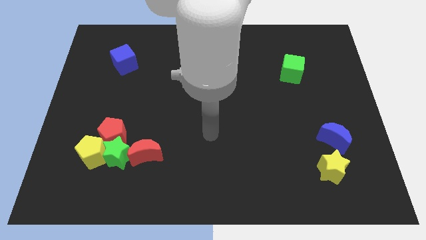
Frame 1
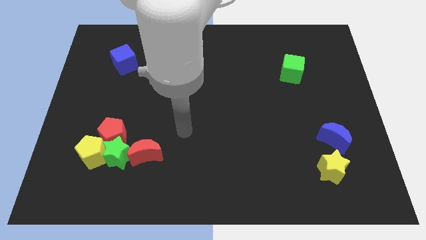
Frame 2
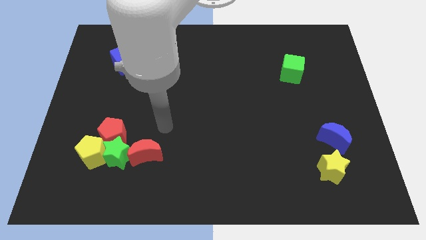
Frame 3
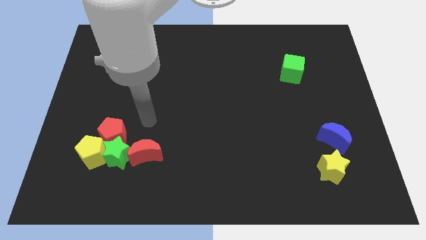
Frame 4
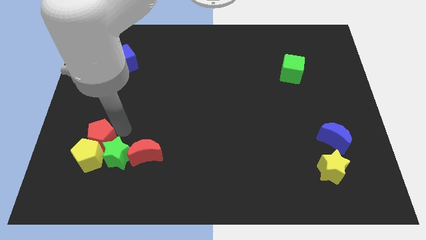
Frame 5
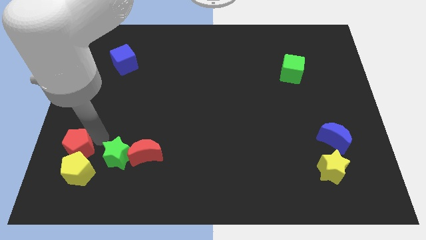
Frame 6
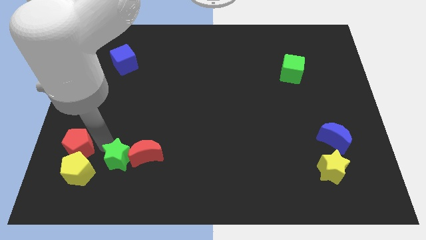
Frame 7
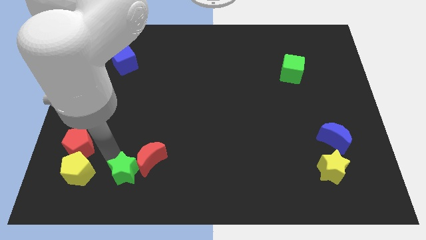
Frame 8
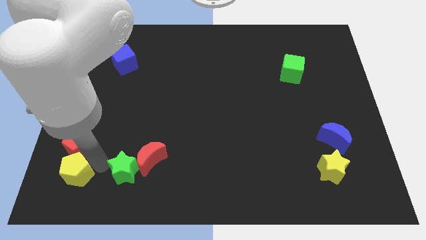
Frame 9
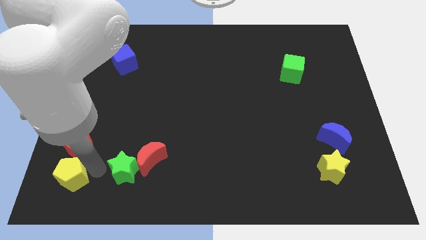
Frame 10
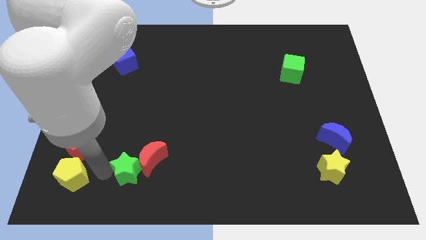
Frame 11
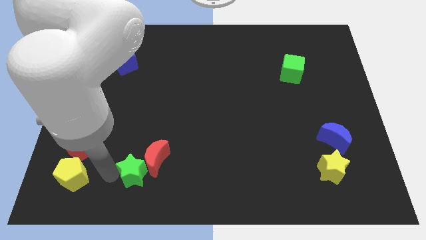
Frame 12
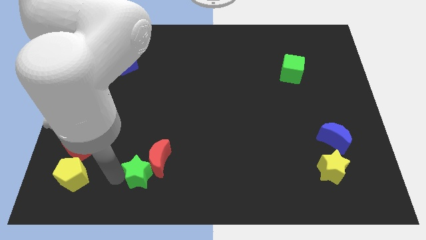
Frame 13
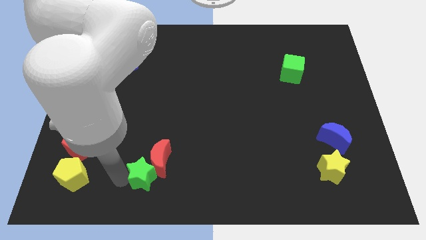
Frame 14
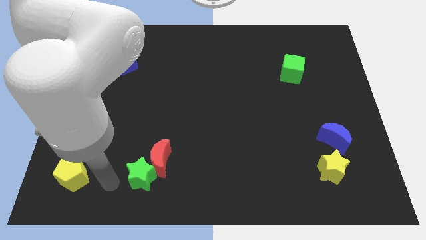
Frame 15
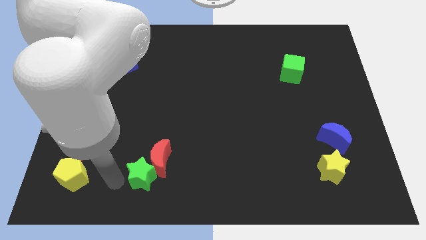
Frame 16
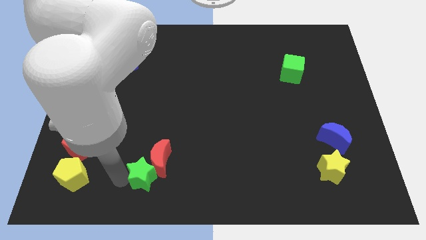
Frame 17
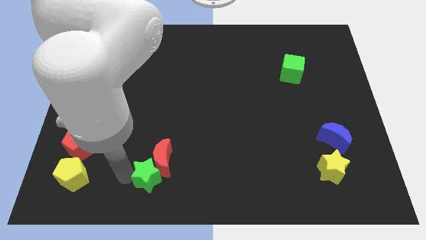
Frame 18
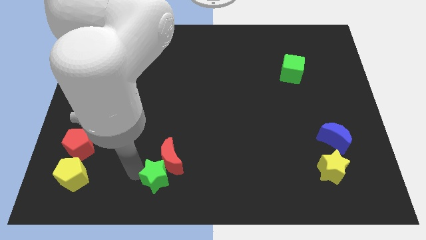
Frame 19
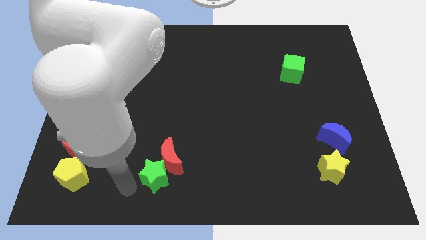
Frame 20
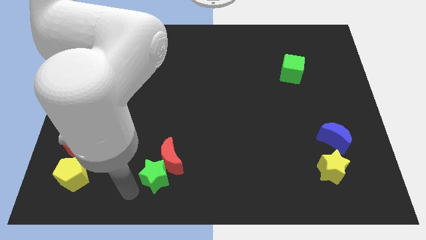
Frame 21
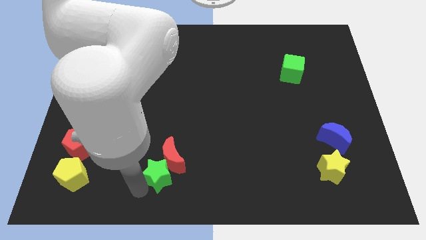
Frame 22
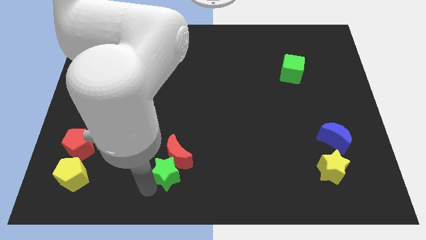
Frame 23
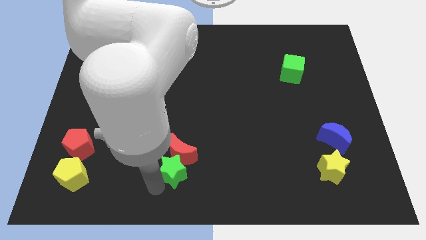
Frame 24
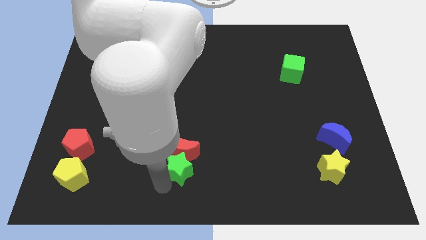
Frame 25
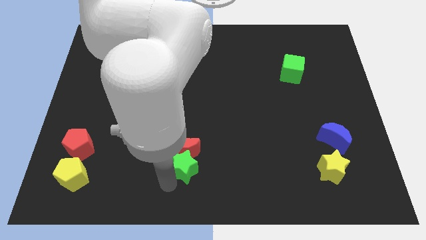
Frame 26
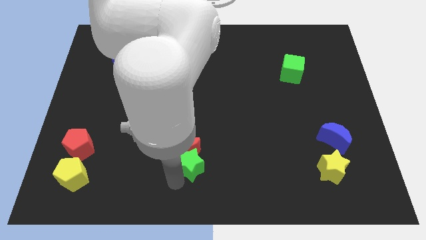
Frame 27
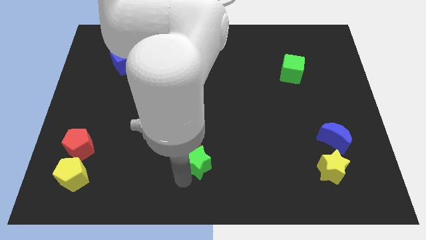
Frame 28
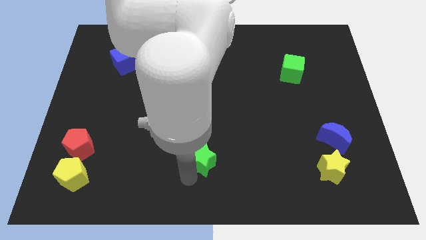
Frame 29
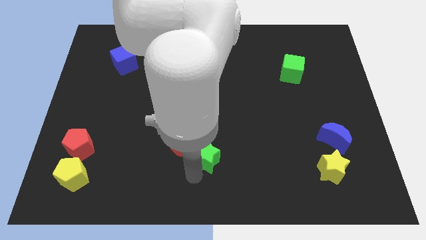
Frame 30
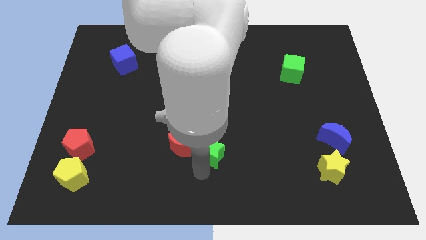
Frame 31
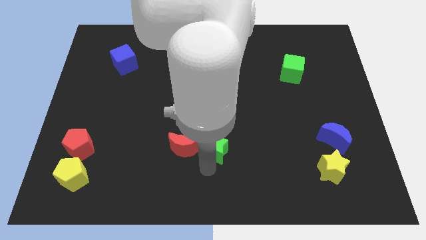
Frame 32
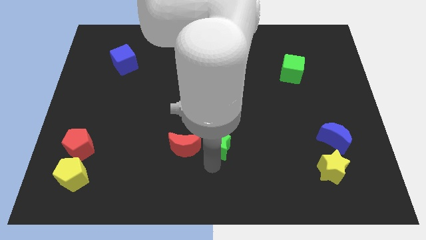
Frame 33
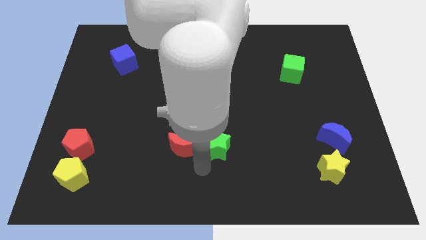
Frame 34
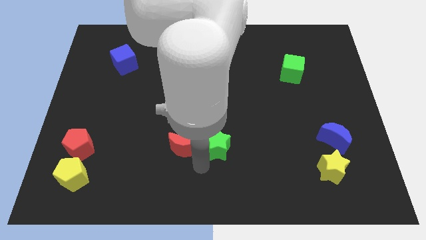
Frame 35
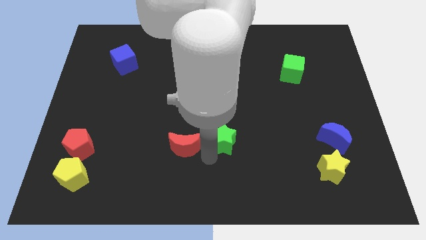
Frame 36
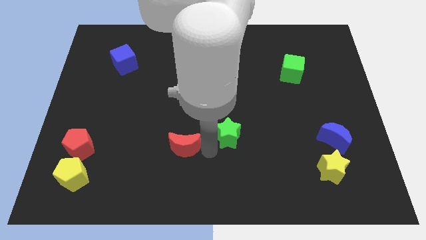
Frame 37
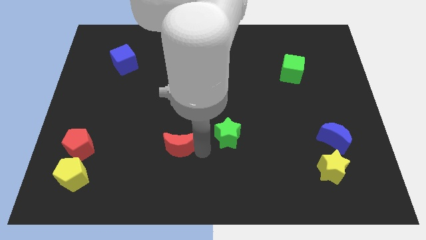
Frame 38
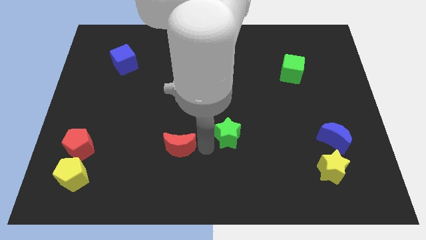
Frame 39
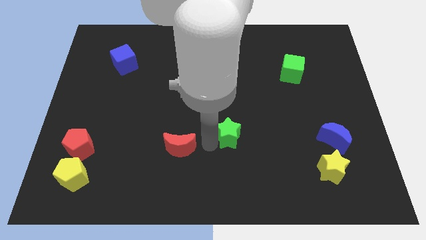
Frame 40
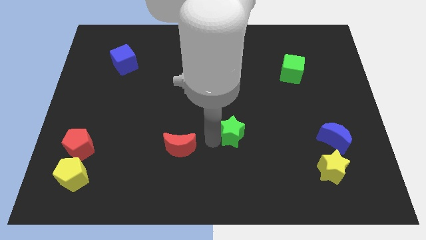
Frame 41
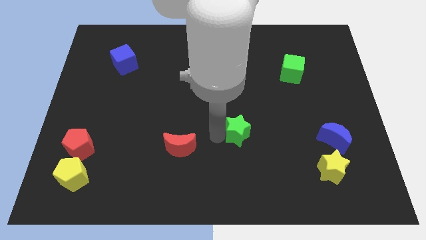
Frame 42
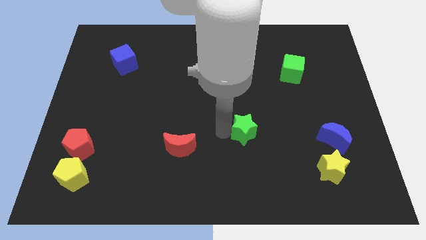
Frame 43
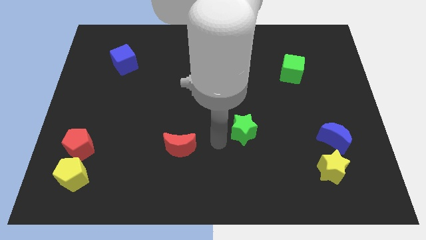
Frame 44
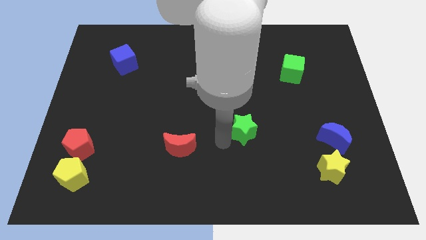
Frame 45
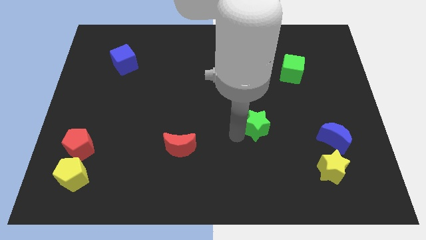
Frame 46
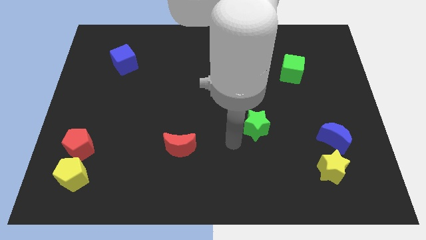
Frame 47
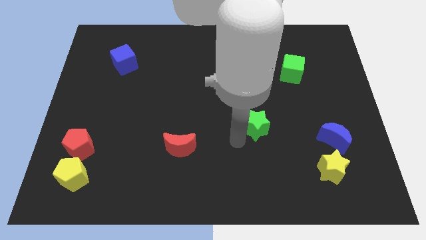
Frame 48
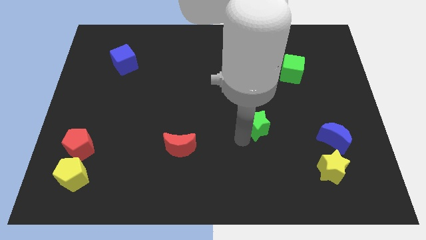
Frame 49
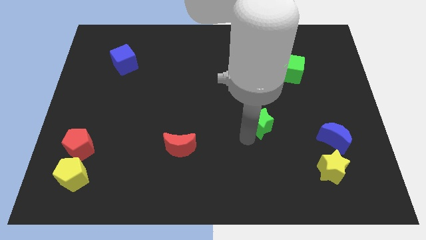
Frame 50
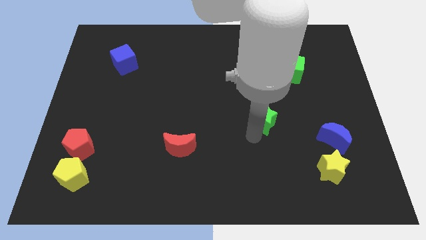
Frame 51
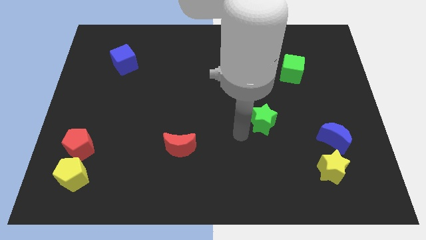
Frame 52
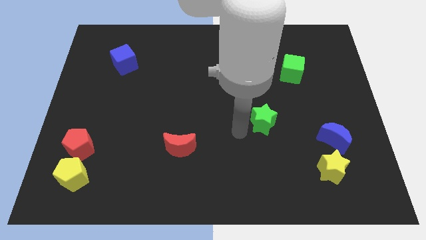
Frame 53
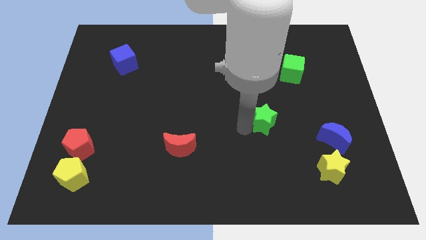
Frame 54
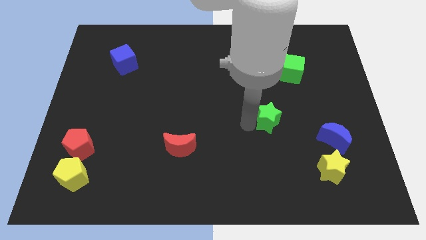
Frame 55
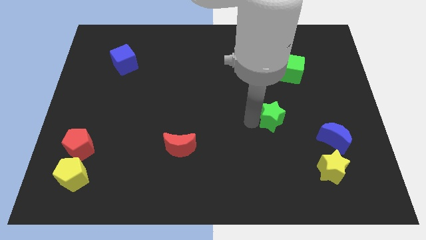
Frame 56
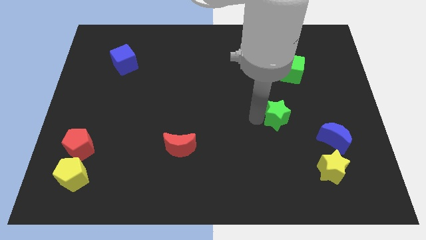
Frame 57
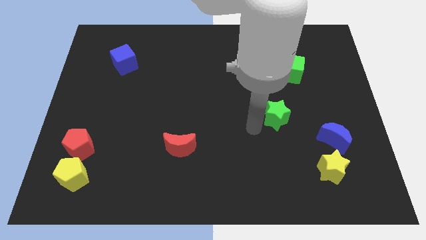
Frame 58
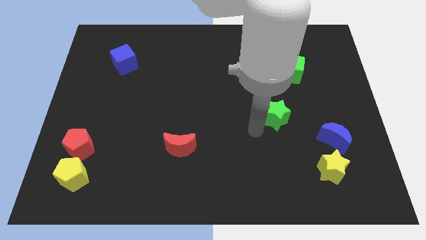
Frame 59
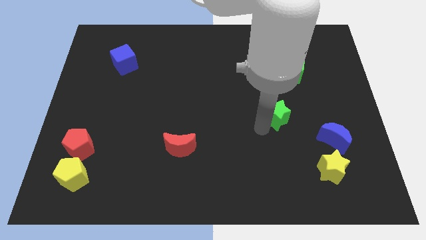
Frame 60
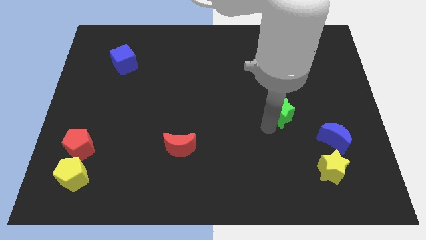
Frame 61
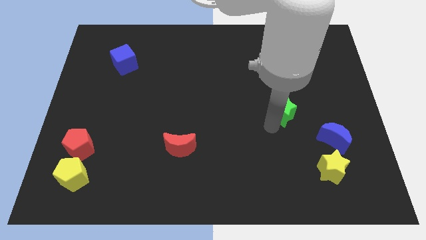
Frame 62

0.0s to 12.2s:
slide the green star to the bottom side of the green cube

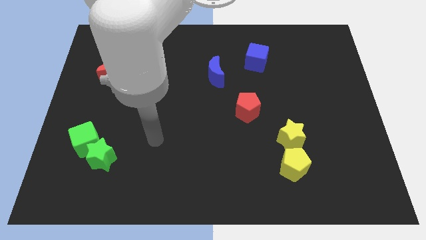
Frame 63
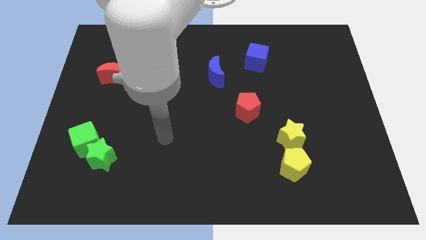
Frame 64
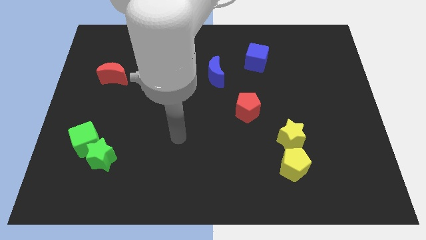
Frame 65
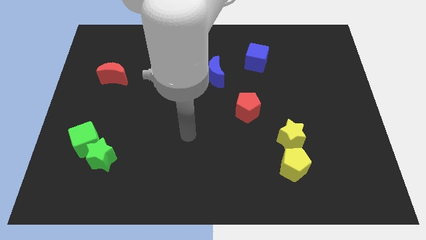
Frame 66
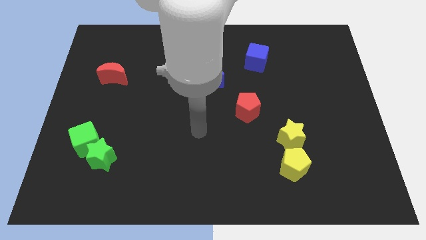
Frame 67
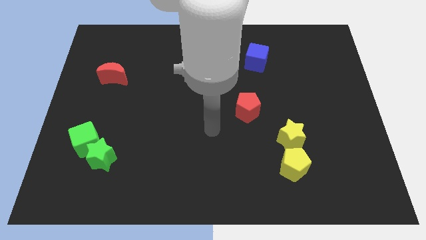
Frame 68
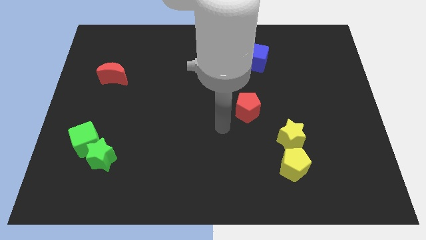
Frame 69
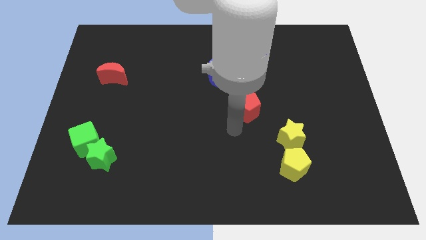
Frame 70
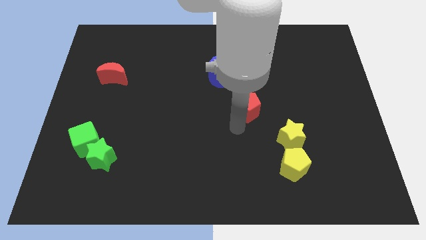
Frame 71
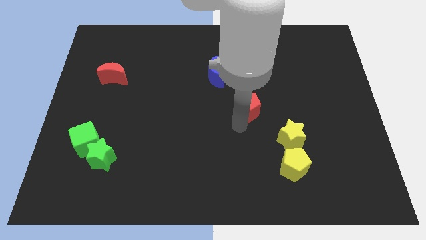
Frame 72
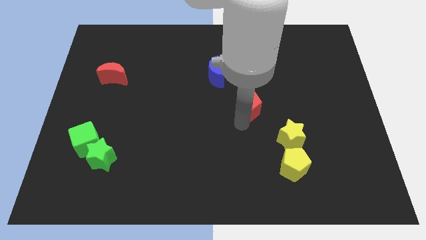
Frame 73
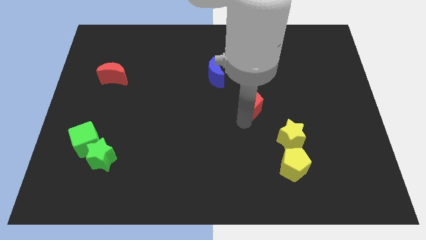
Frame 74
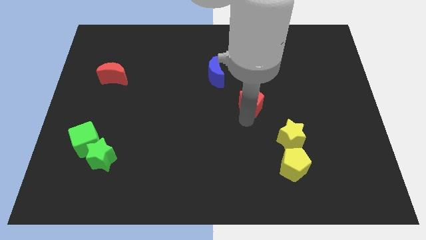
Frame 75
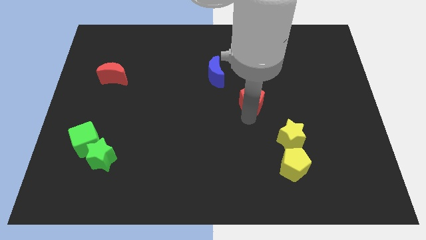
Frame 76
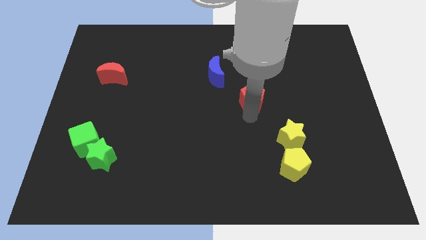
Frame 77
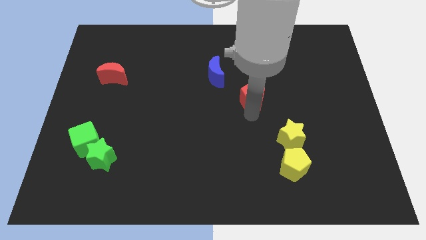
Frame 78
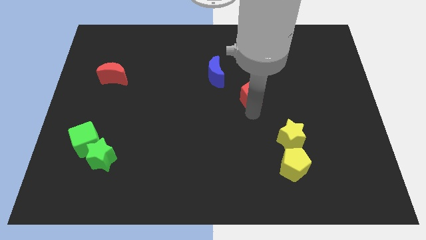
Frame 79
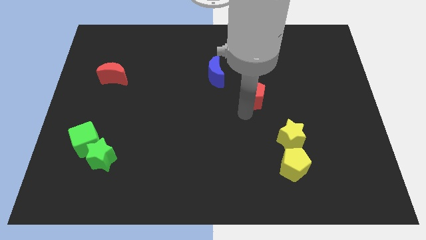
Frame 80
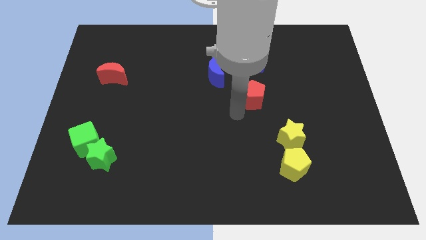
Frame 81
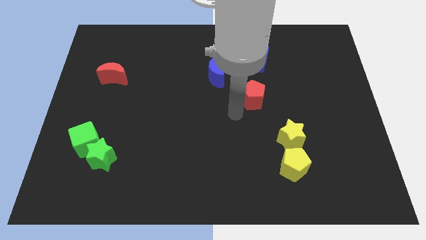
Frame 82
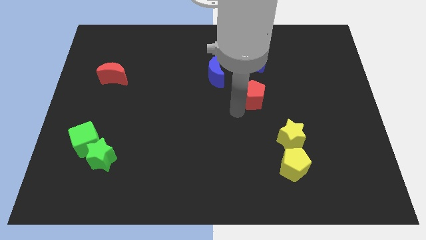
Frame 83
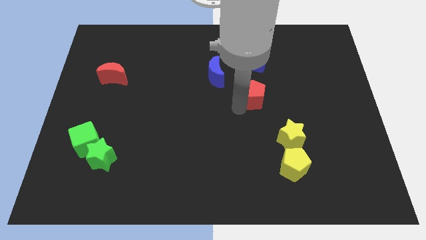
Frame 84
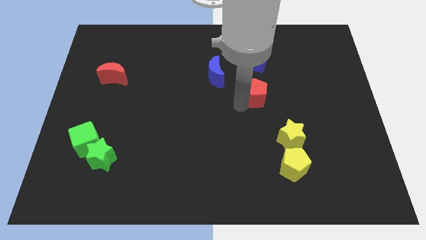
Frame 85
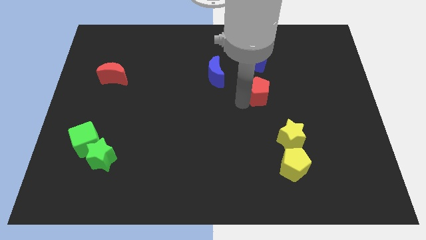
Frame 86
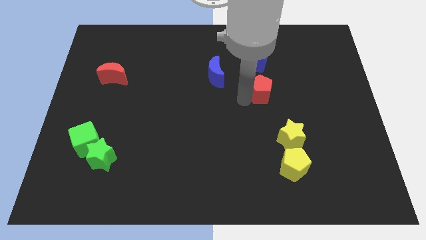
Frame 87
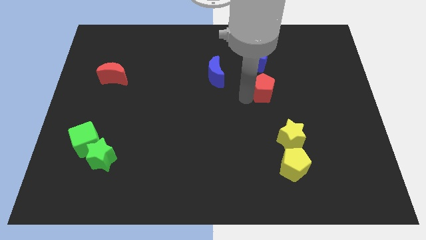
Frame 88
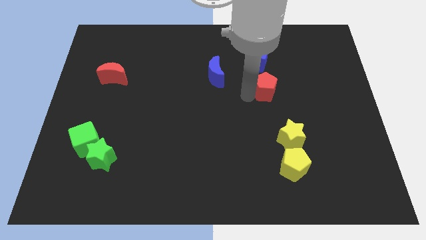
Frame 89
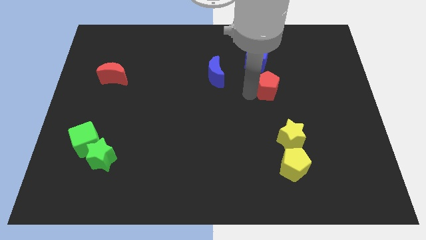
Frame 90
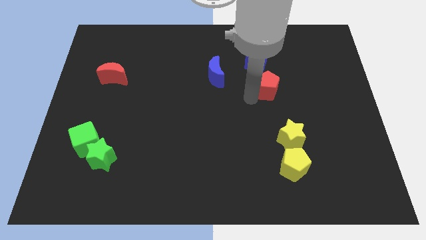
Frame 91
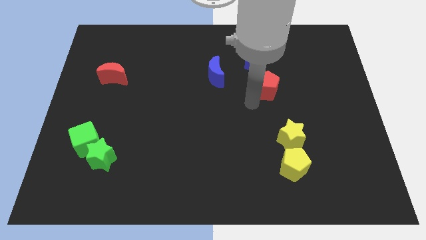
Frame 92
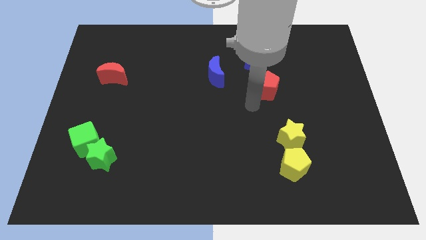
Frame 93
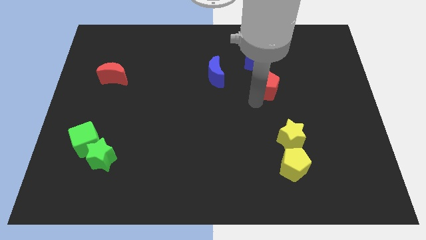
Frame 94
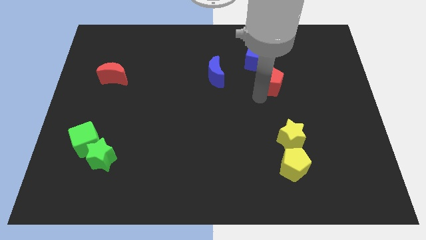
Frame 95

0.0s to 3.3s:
push the red pentagon to the bottom right side of the blue cube
